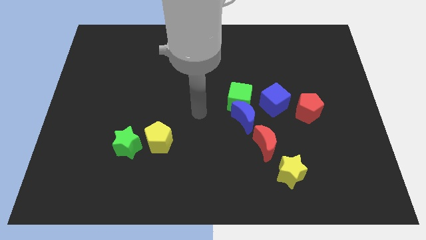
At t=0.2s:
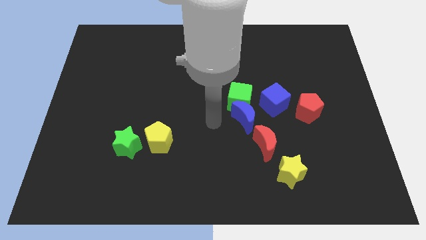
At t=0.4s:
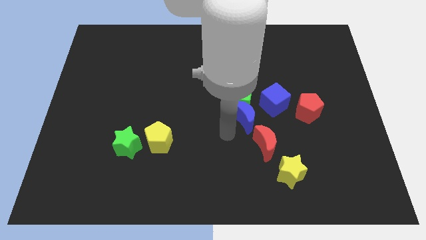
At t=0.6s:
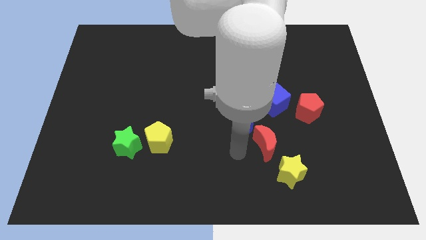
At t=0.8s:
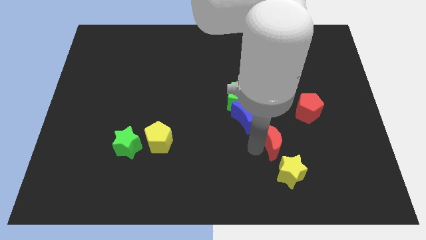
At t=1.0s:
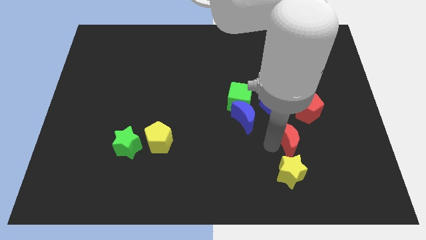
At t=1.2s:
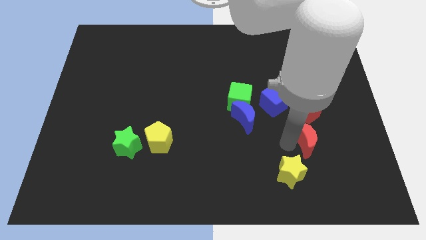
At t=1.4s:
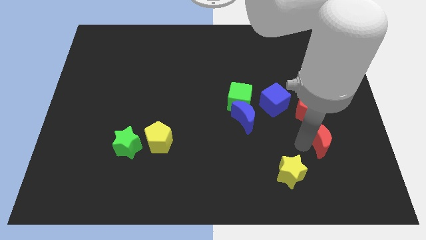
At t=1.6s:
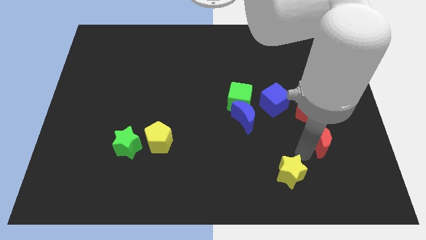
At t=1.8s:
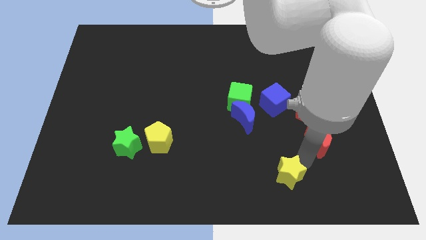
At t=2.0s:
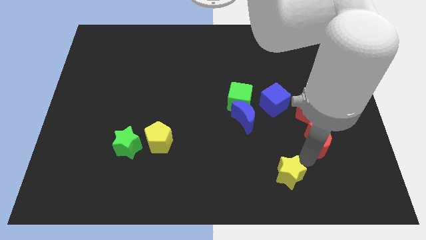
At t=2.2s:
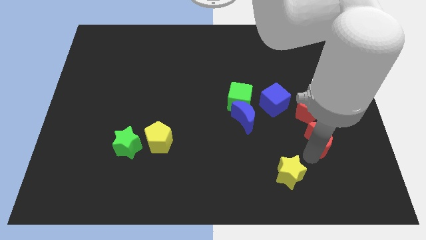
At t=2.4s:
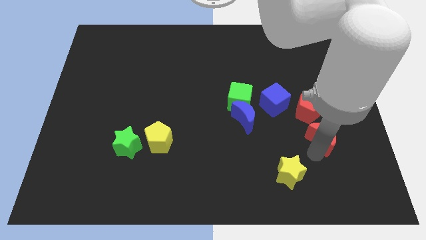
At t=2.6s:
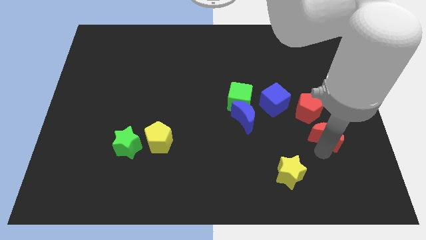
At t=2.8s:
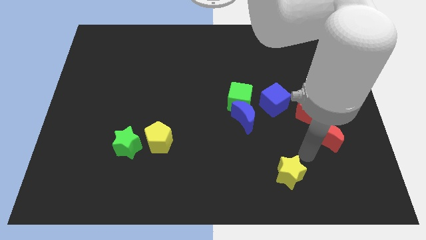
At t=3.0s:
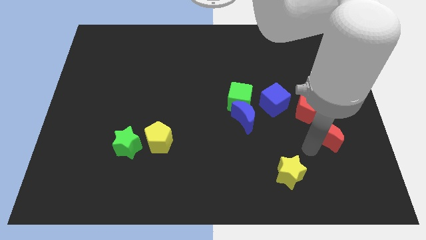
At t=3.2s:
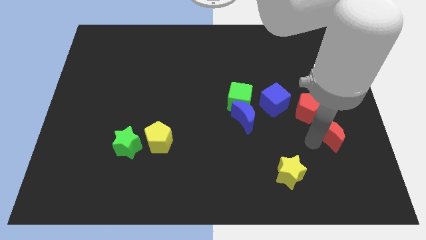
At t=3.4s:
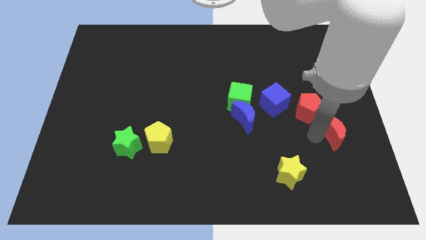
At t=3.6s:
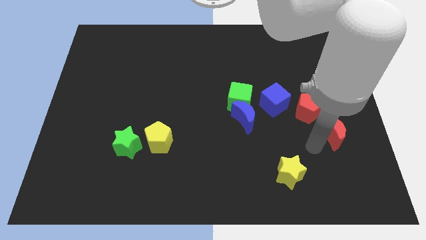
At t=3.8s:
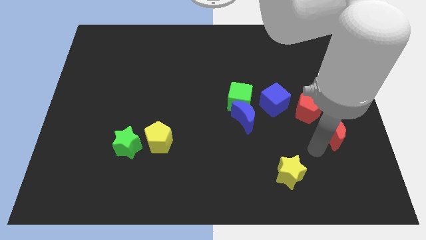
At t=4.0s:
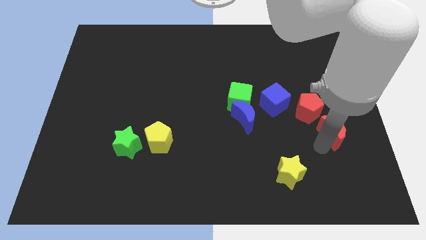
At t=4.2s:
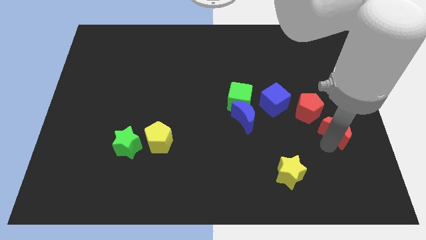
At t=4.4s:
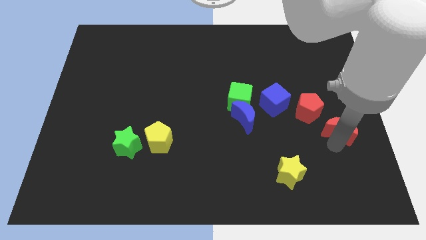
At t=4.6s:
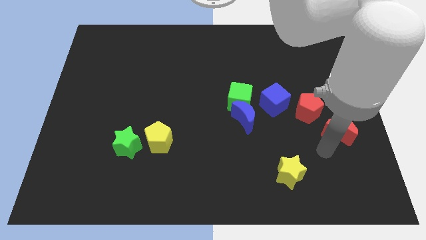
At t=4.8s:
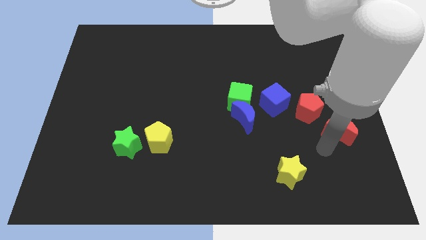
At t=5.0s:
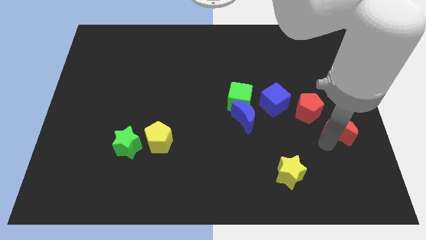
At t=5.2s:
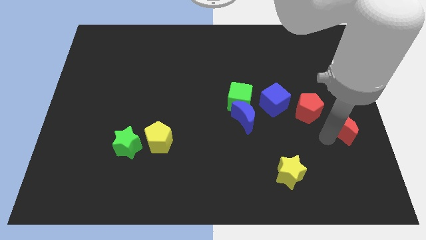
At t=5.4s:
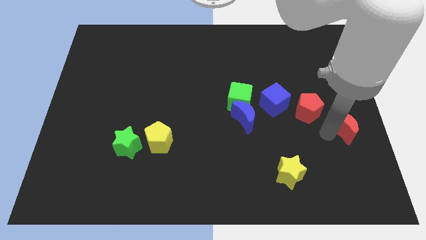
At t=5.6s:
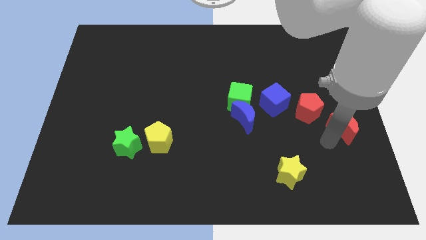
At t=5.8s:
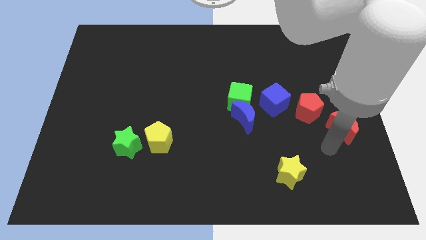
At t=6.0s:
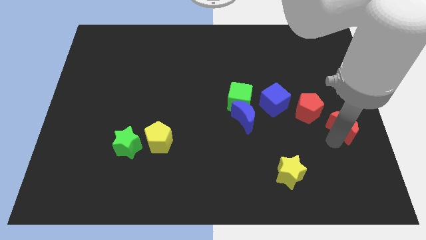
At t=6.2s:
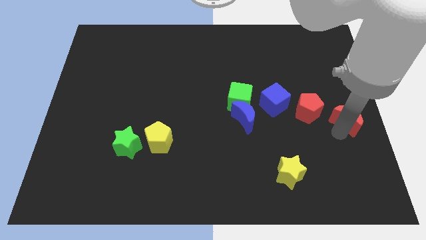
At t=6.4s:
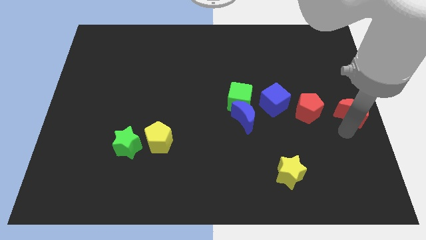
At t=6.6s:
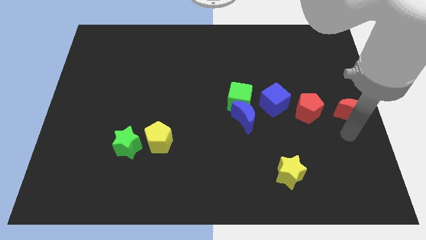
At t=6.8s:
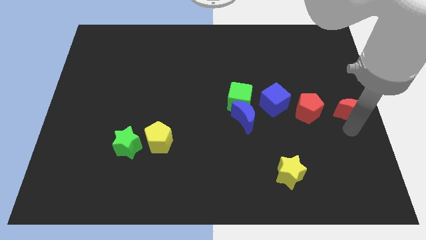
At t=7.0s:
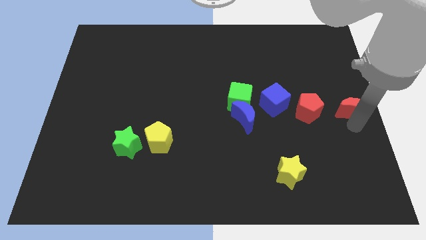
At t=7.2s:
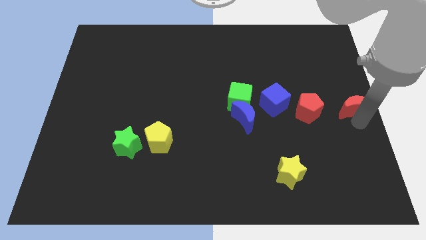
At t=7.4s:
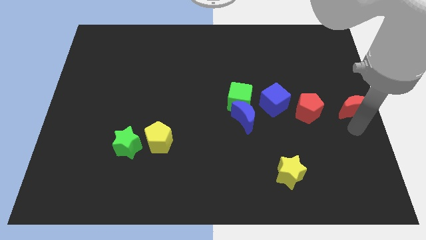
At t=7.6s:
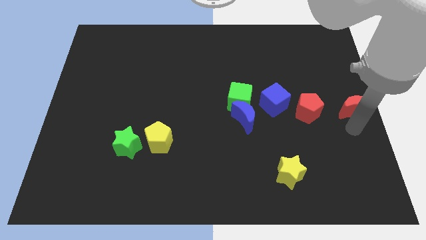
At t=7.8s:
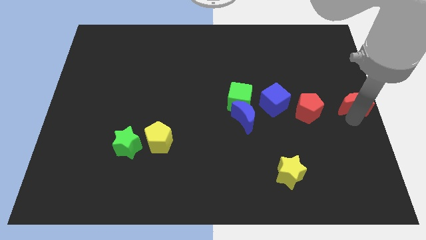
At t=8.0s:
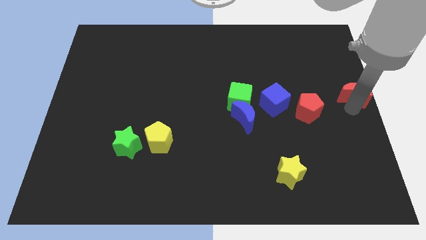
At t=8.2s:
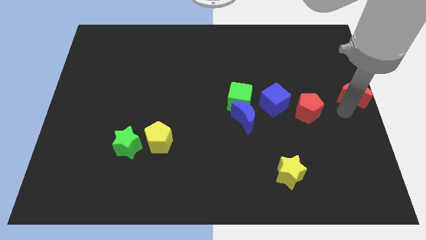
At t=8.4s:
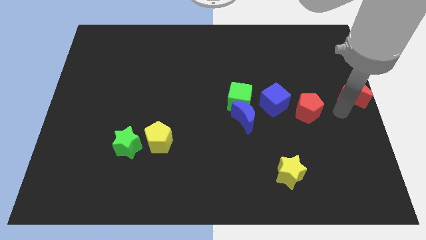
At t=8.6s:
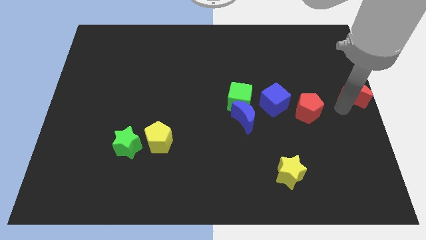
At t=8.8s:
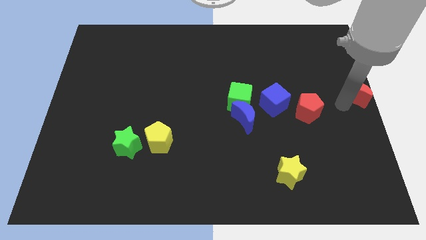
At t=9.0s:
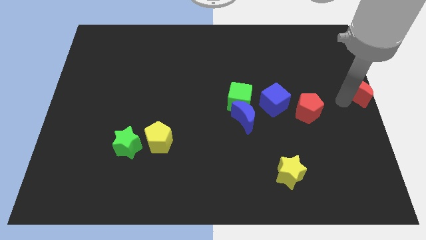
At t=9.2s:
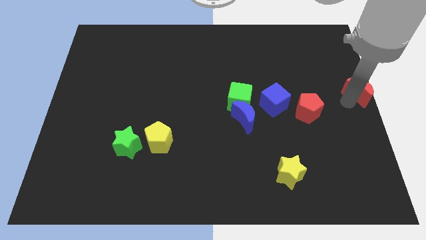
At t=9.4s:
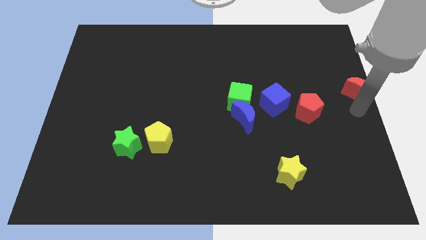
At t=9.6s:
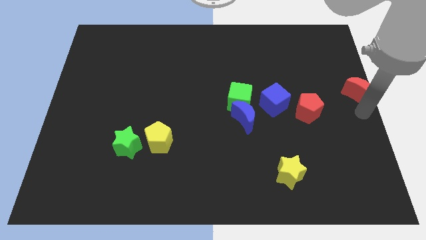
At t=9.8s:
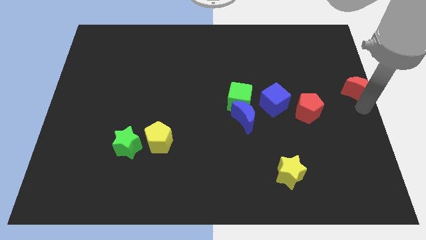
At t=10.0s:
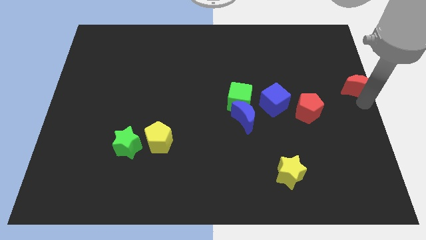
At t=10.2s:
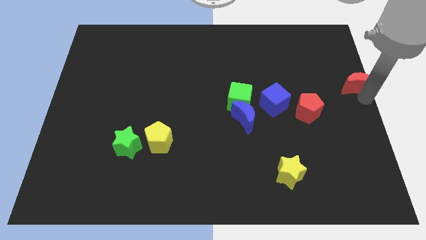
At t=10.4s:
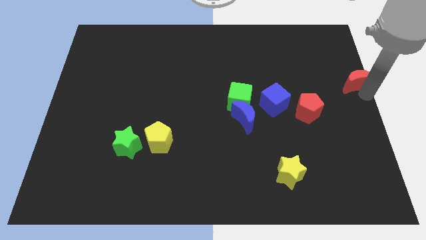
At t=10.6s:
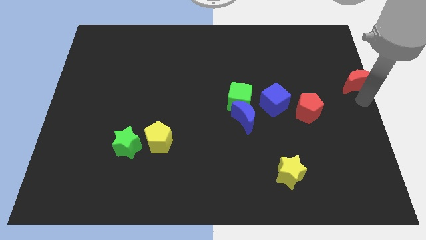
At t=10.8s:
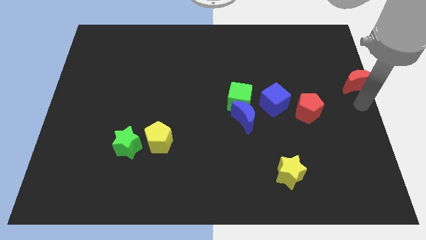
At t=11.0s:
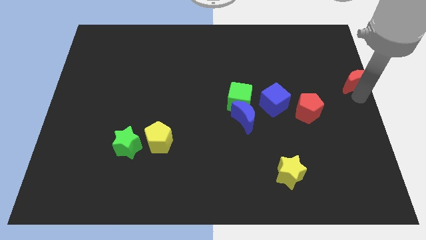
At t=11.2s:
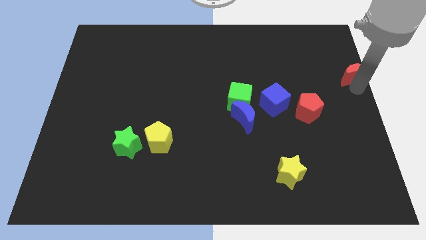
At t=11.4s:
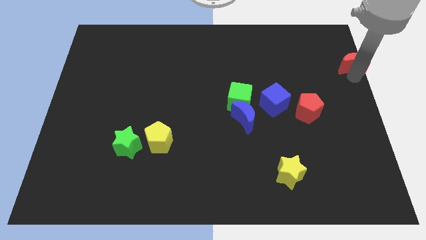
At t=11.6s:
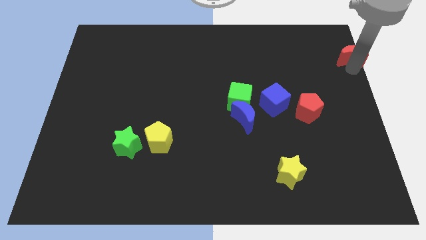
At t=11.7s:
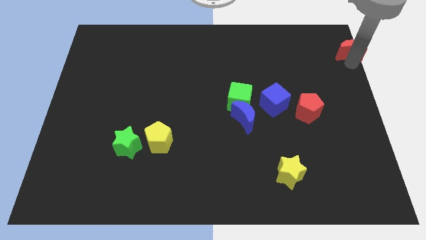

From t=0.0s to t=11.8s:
push the red moon to the top right corner

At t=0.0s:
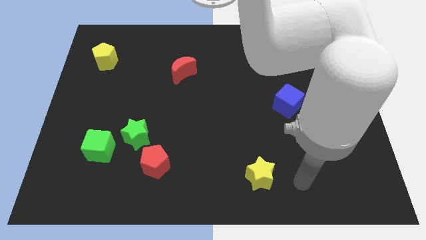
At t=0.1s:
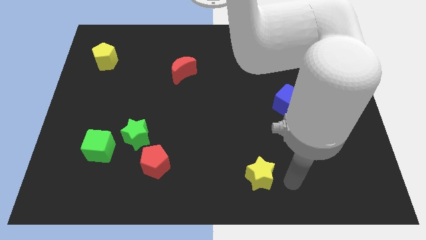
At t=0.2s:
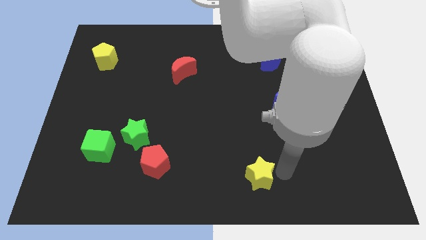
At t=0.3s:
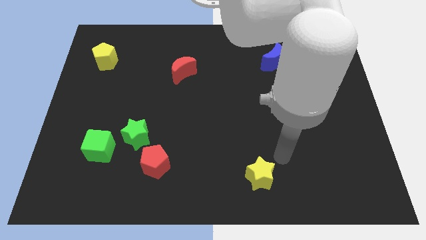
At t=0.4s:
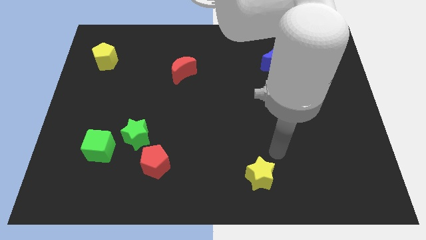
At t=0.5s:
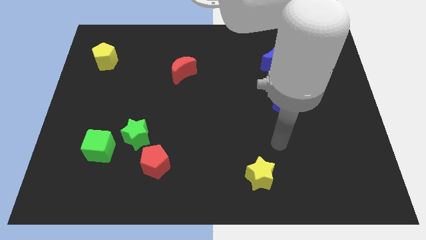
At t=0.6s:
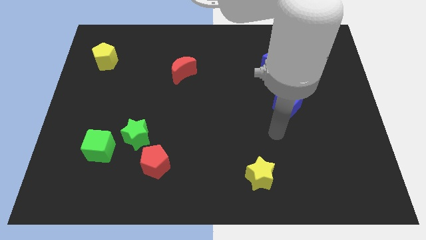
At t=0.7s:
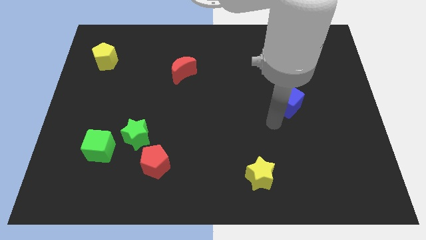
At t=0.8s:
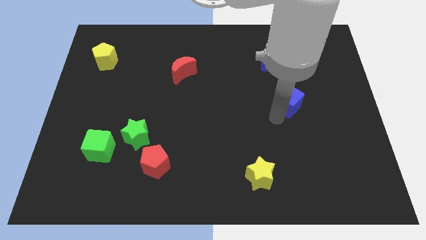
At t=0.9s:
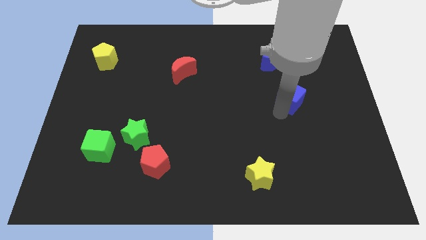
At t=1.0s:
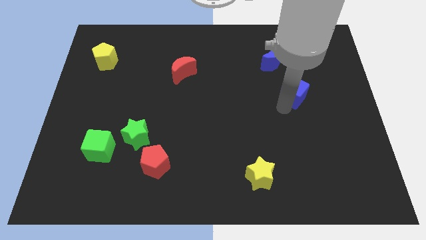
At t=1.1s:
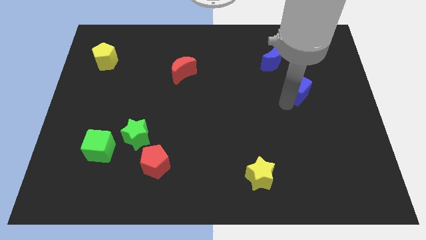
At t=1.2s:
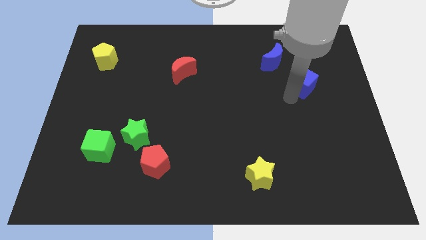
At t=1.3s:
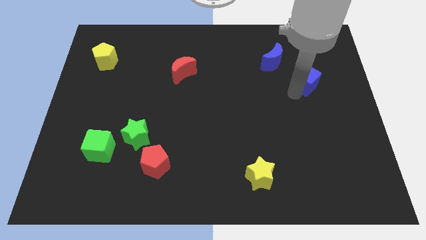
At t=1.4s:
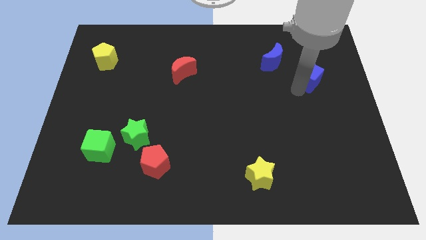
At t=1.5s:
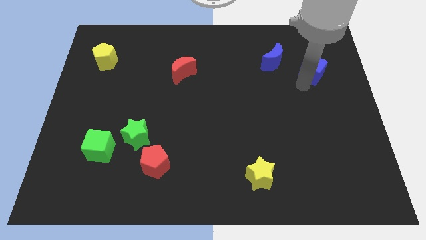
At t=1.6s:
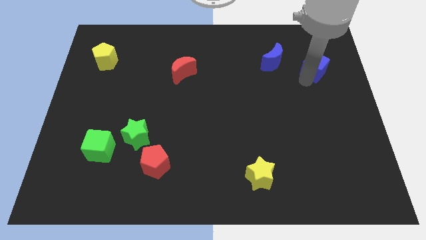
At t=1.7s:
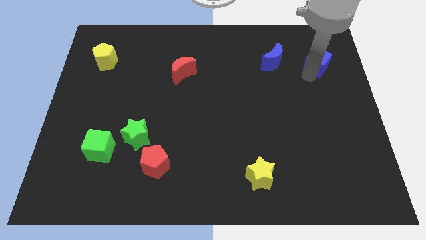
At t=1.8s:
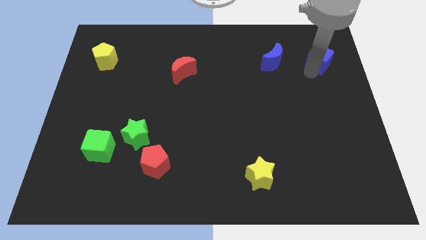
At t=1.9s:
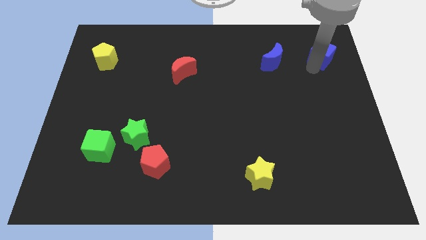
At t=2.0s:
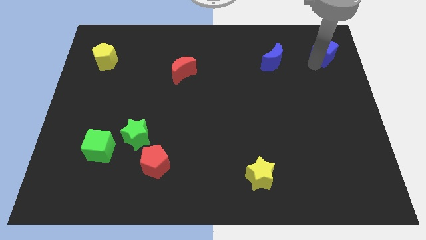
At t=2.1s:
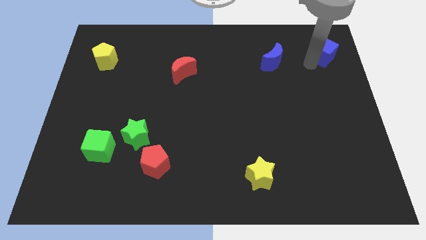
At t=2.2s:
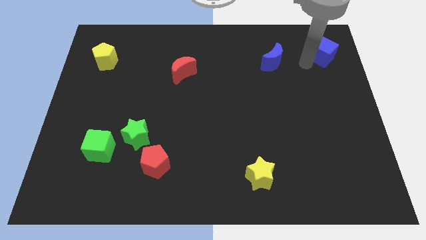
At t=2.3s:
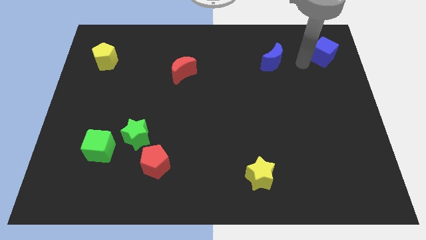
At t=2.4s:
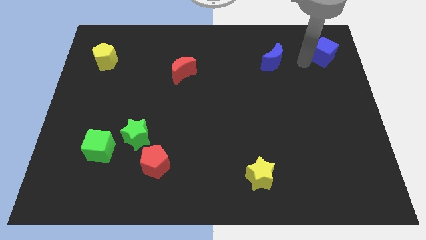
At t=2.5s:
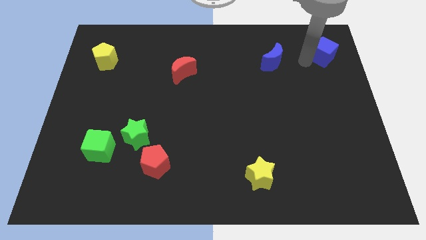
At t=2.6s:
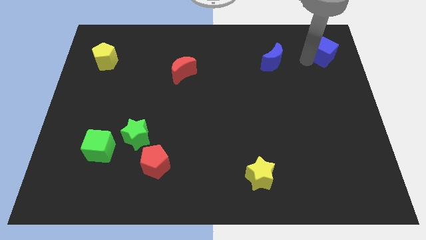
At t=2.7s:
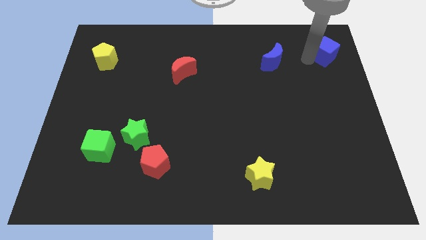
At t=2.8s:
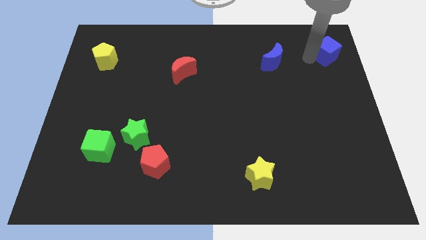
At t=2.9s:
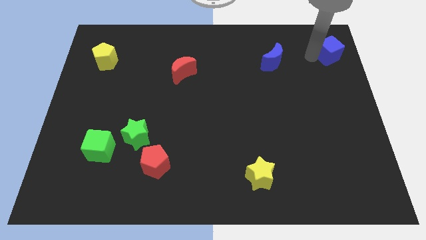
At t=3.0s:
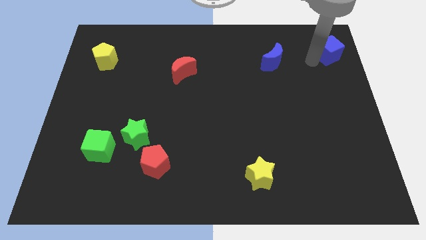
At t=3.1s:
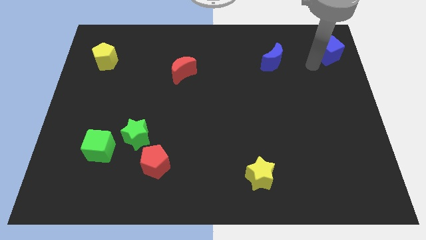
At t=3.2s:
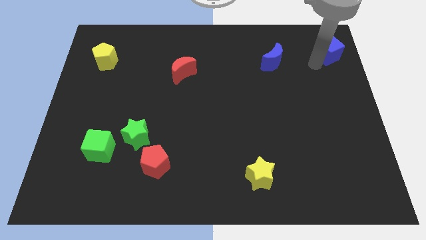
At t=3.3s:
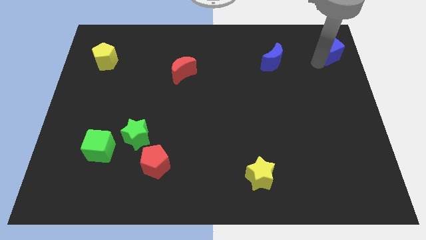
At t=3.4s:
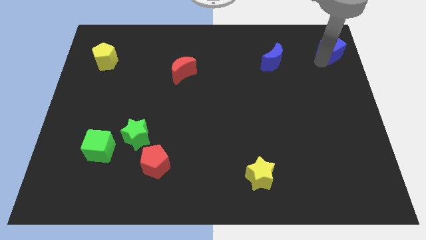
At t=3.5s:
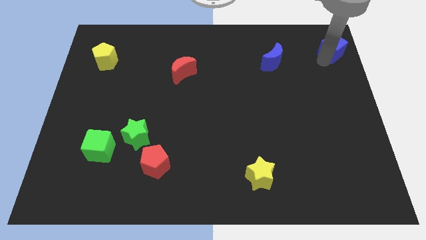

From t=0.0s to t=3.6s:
put the blue cube to the top right corner
